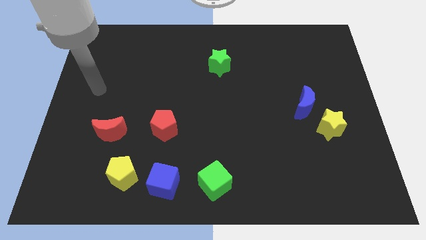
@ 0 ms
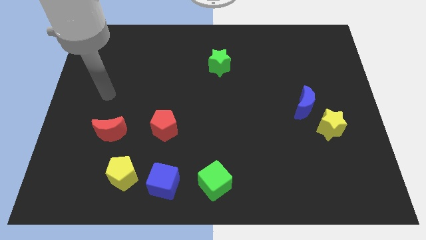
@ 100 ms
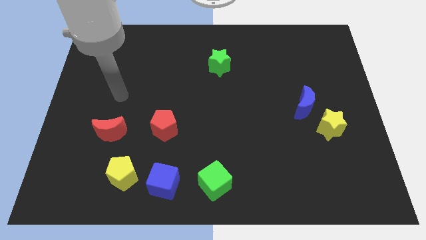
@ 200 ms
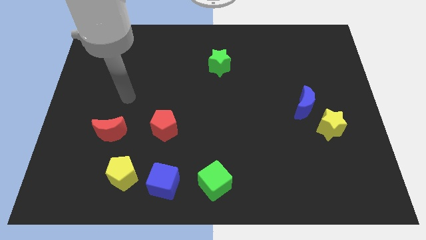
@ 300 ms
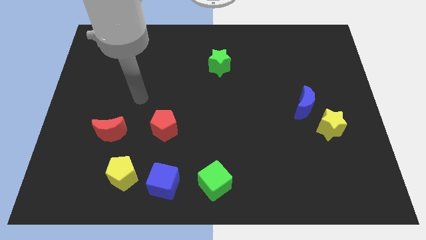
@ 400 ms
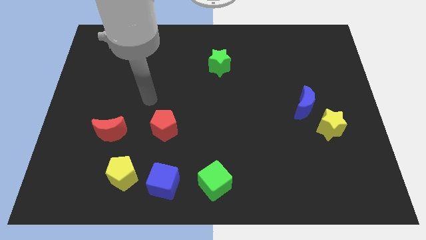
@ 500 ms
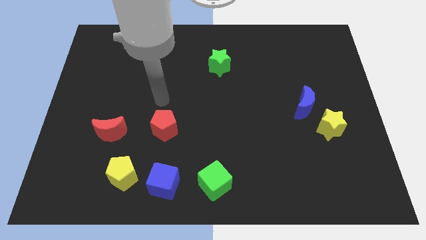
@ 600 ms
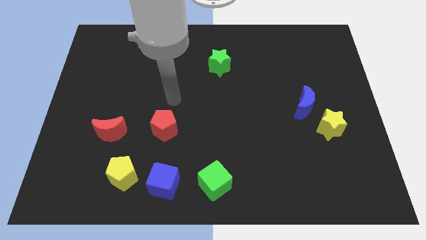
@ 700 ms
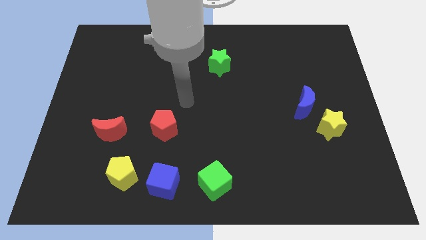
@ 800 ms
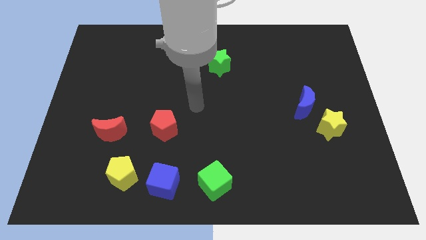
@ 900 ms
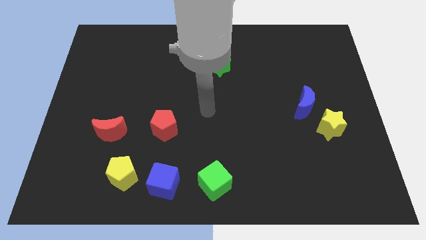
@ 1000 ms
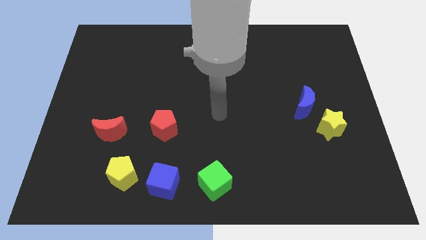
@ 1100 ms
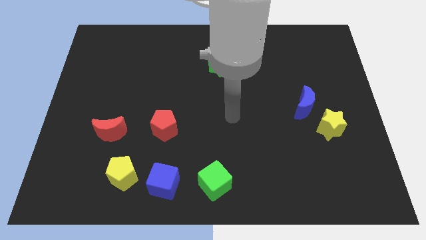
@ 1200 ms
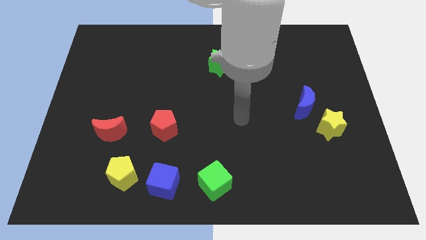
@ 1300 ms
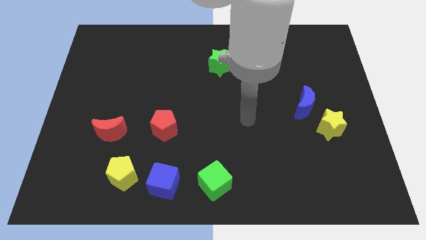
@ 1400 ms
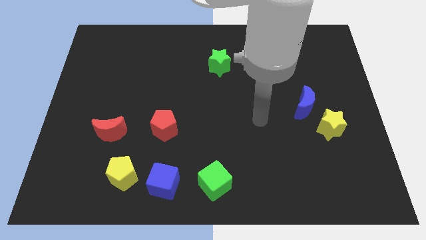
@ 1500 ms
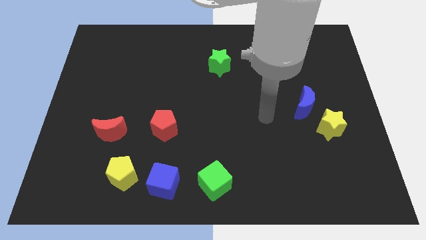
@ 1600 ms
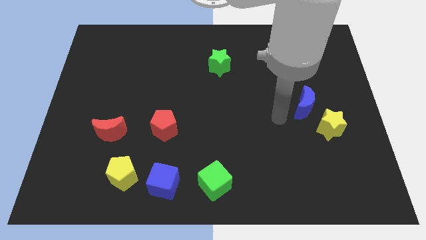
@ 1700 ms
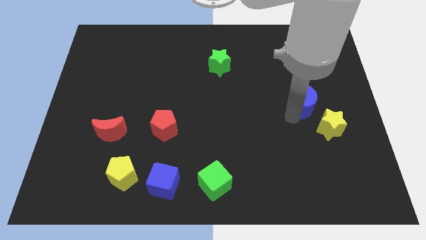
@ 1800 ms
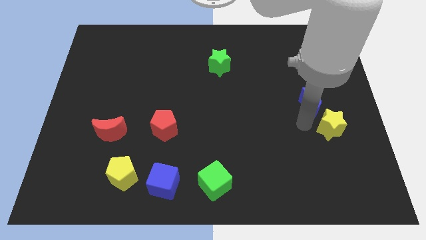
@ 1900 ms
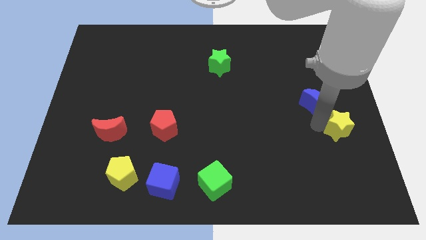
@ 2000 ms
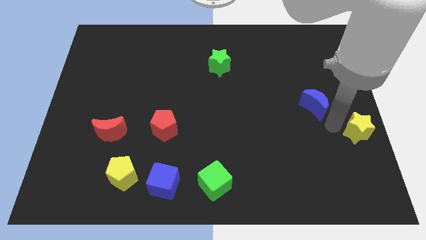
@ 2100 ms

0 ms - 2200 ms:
pull the blue moon apart from the yellow star

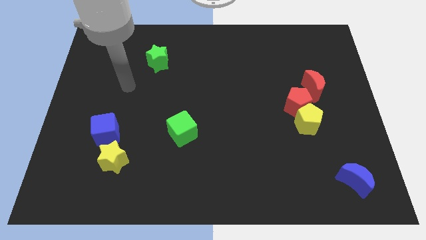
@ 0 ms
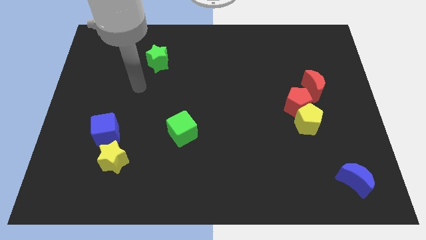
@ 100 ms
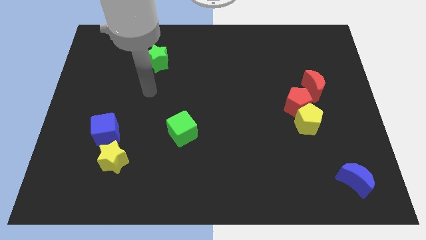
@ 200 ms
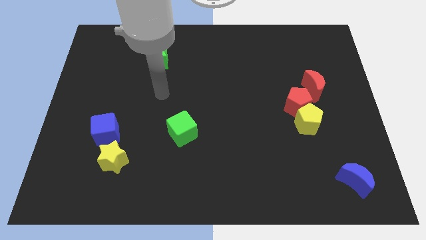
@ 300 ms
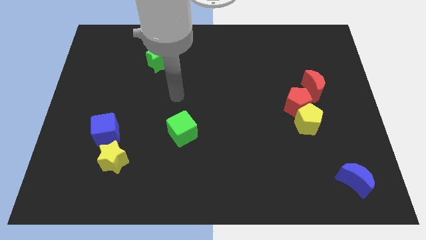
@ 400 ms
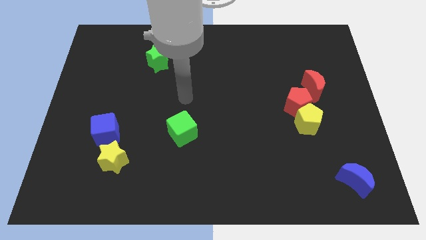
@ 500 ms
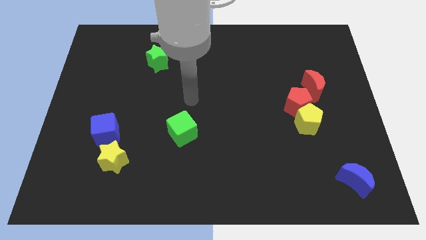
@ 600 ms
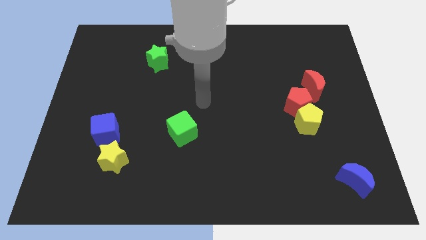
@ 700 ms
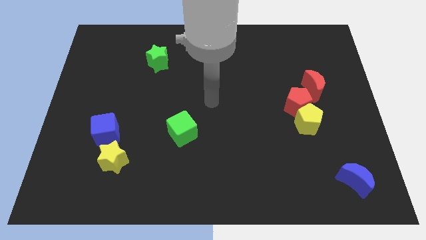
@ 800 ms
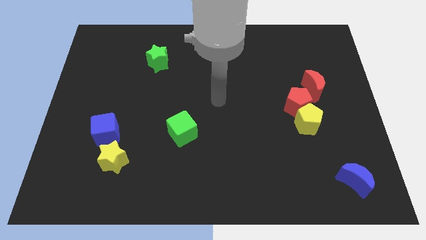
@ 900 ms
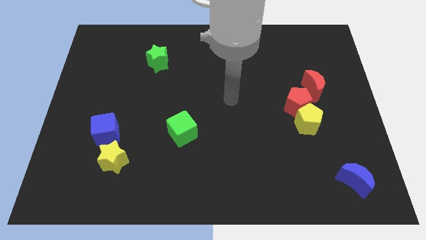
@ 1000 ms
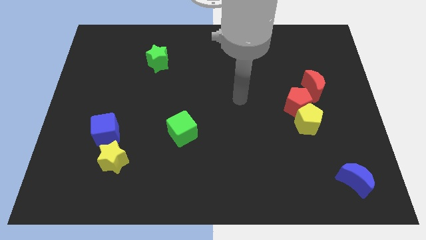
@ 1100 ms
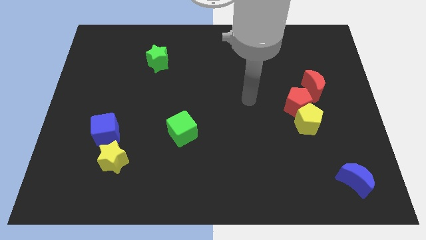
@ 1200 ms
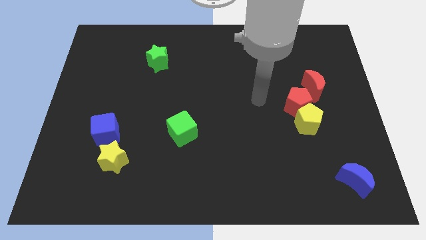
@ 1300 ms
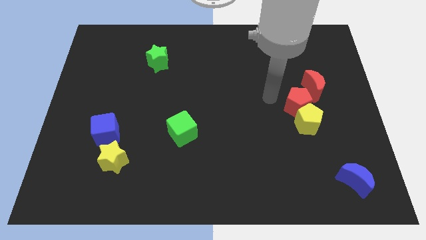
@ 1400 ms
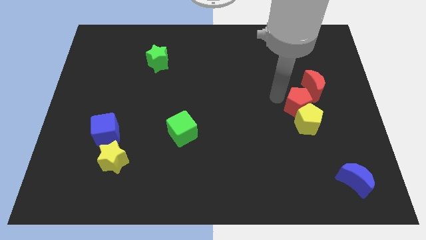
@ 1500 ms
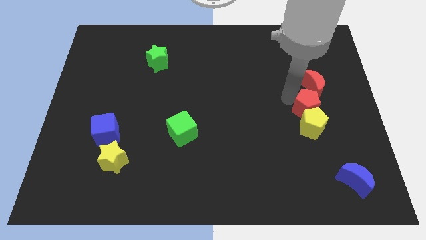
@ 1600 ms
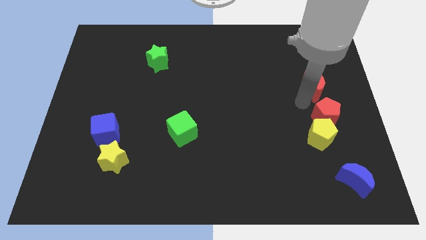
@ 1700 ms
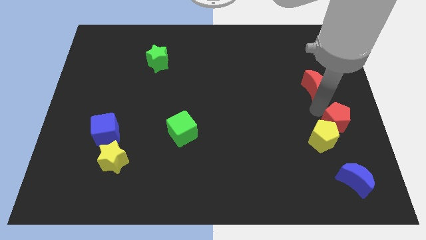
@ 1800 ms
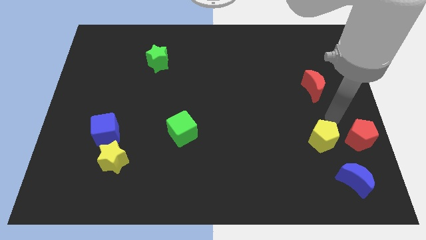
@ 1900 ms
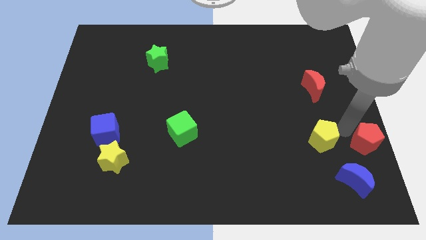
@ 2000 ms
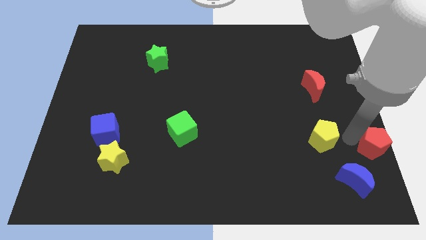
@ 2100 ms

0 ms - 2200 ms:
separate the yellow pentagon from the red pentagon

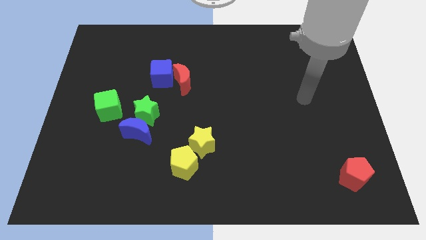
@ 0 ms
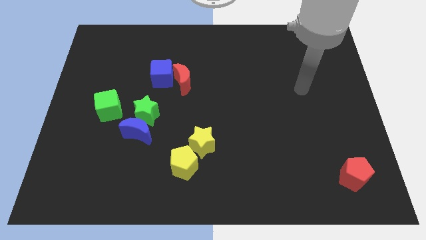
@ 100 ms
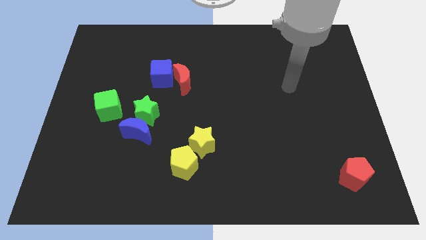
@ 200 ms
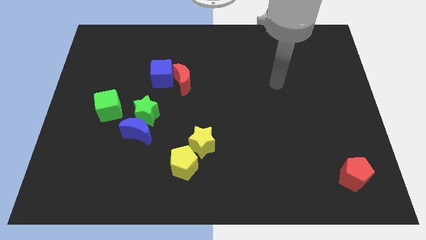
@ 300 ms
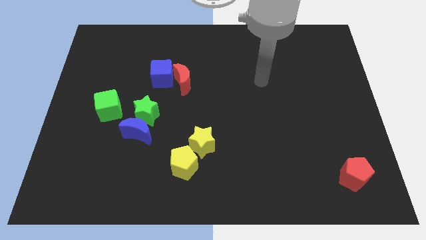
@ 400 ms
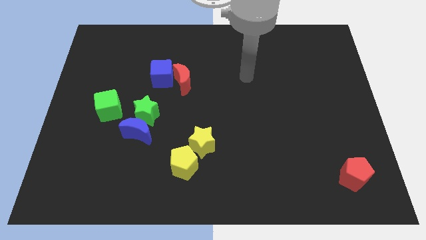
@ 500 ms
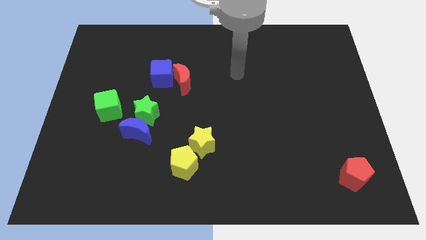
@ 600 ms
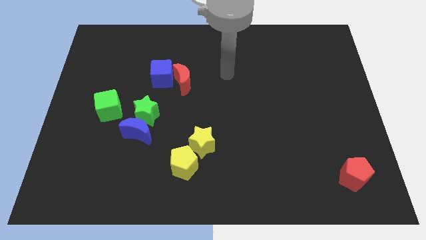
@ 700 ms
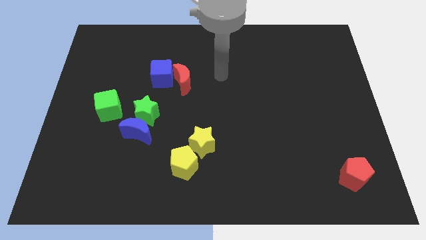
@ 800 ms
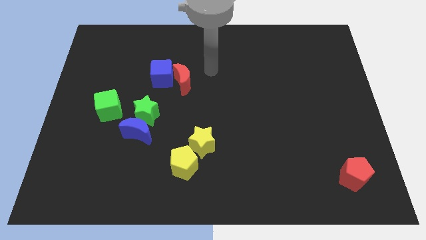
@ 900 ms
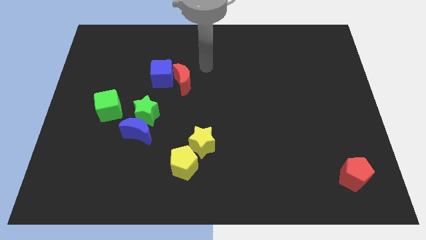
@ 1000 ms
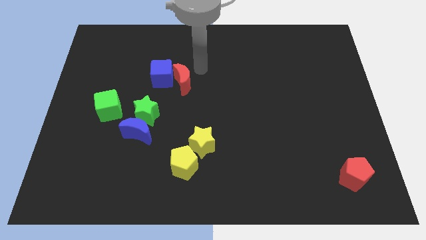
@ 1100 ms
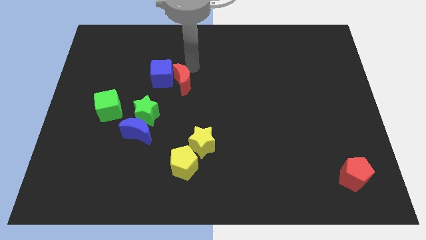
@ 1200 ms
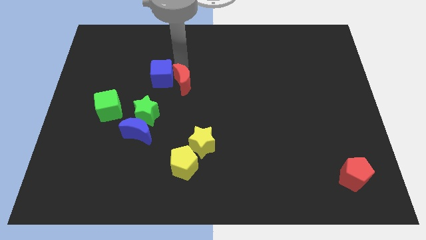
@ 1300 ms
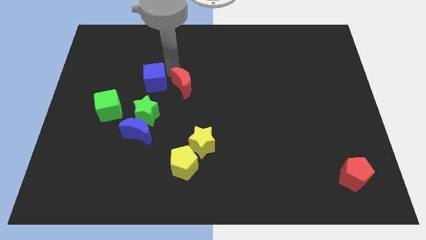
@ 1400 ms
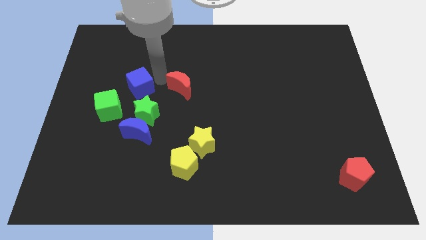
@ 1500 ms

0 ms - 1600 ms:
move the red moon away from the blue cube

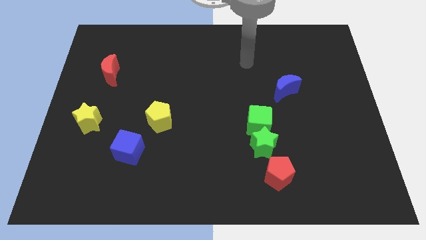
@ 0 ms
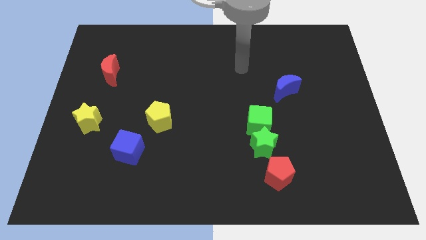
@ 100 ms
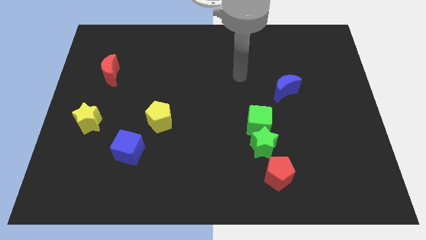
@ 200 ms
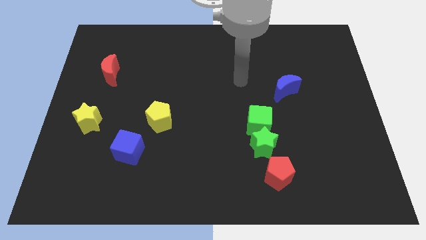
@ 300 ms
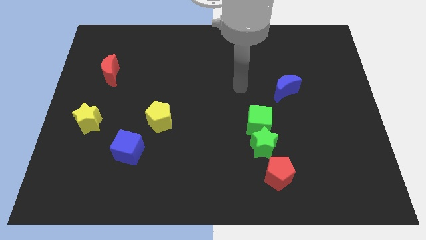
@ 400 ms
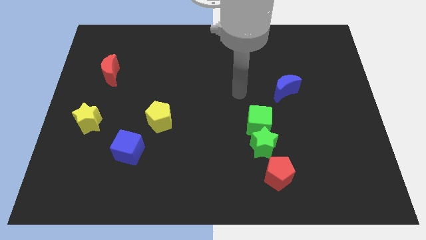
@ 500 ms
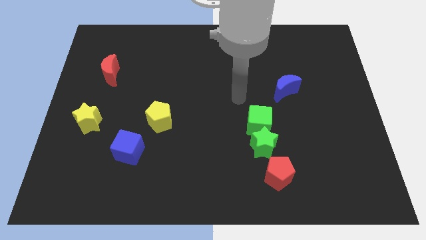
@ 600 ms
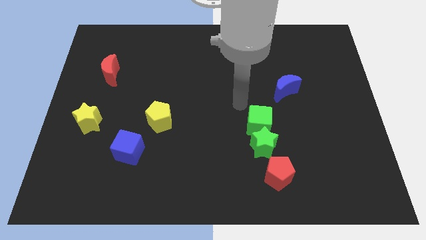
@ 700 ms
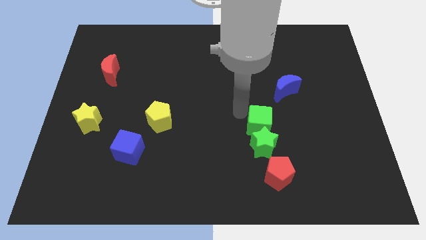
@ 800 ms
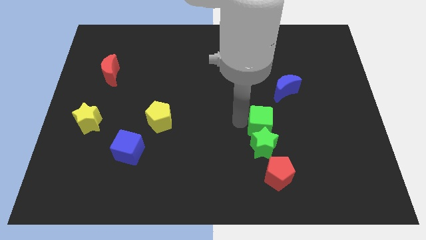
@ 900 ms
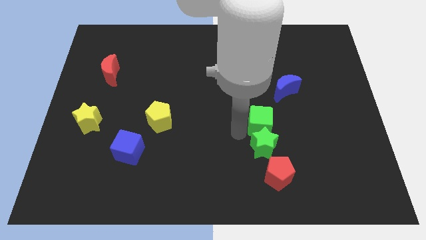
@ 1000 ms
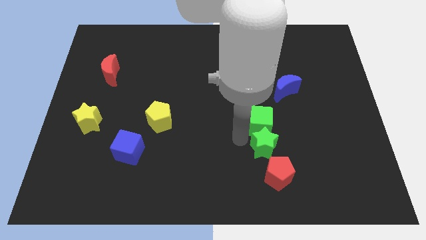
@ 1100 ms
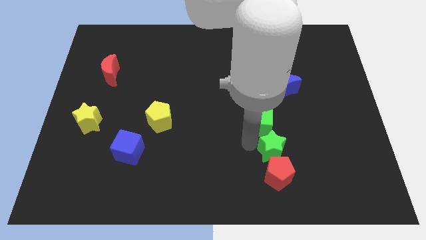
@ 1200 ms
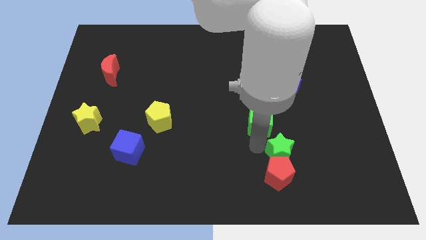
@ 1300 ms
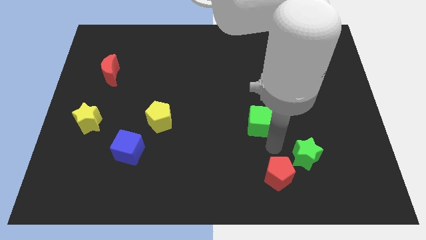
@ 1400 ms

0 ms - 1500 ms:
separate the green cube from the green star

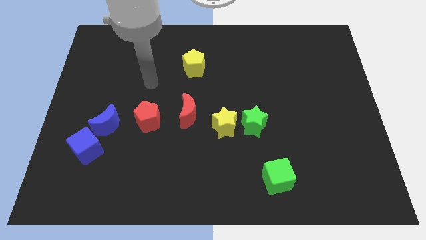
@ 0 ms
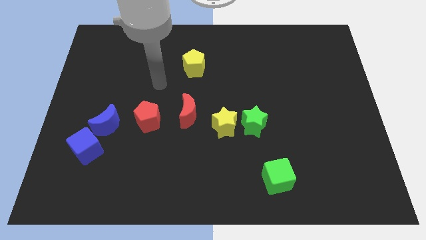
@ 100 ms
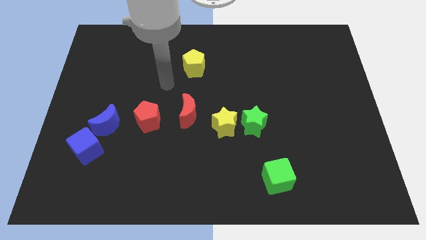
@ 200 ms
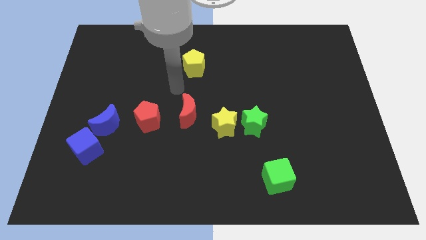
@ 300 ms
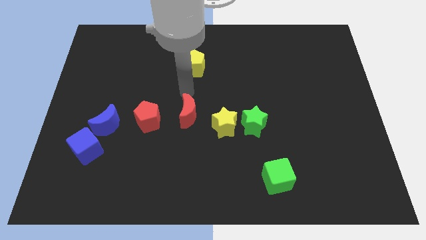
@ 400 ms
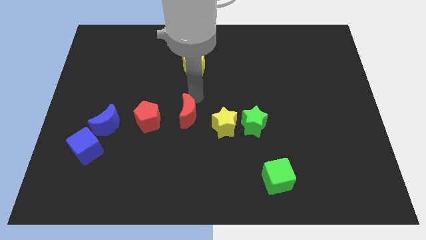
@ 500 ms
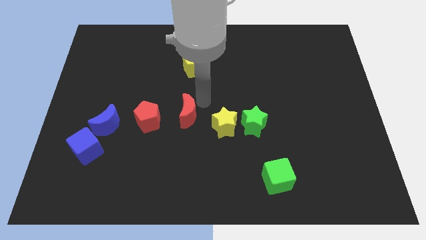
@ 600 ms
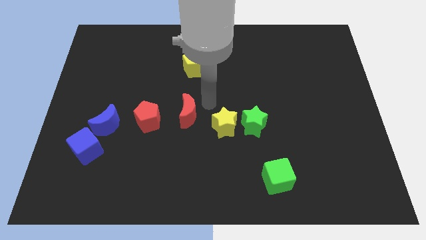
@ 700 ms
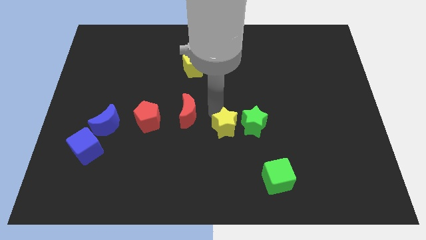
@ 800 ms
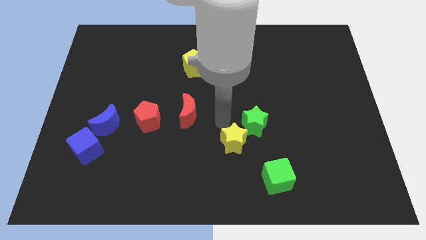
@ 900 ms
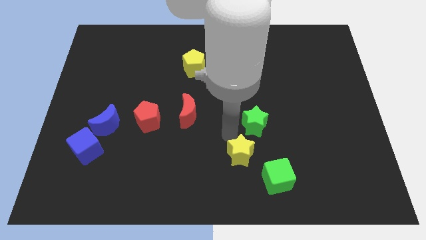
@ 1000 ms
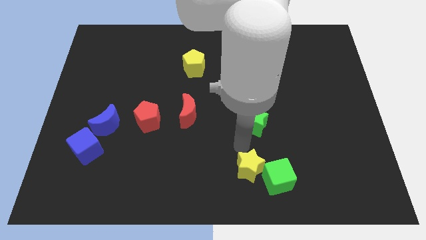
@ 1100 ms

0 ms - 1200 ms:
pull the green star apart from the yellow star

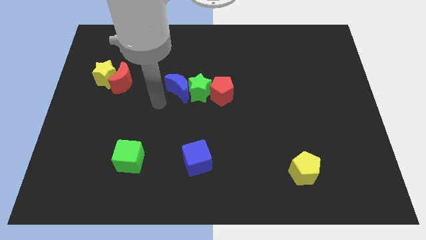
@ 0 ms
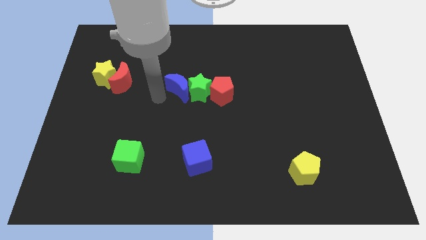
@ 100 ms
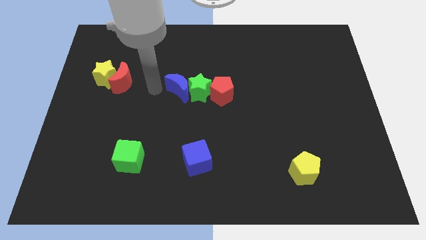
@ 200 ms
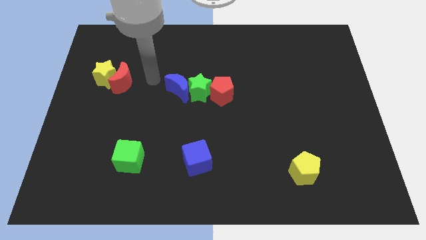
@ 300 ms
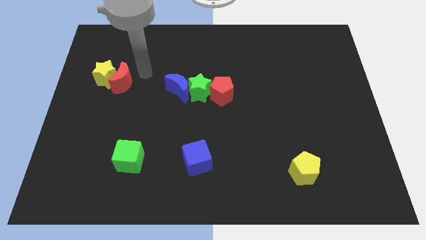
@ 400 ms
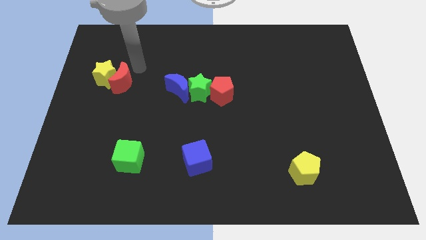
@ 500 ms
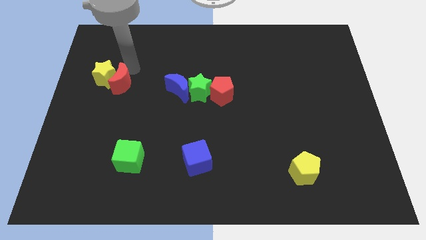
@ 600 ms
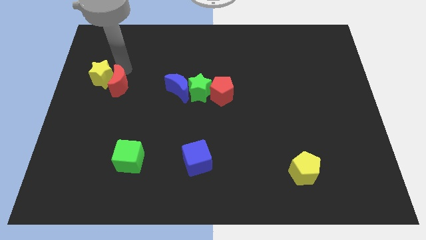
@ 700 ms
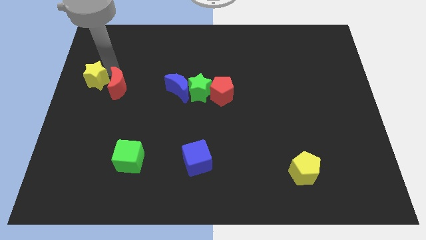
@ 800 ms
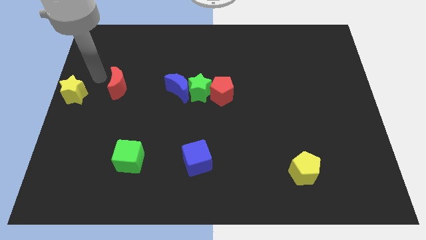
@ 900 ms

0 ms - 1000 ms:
separate the red moon from the yellow star
